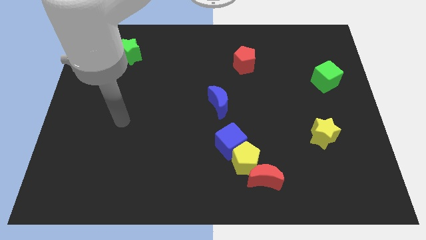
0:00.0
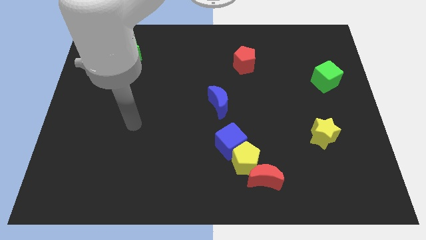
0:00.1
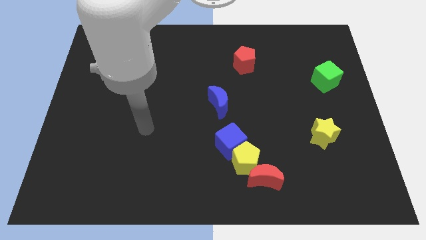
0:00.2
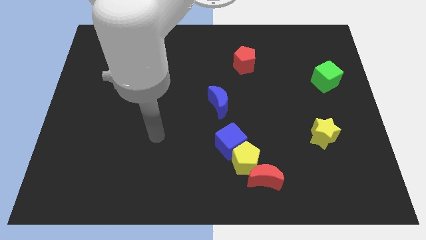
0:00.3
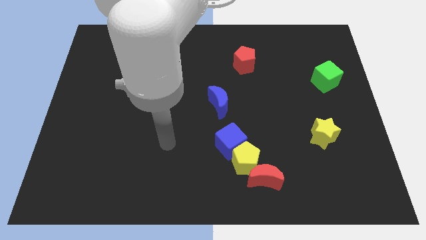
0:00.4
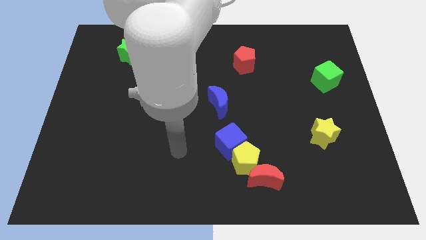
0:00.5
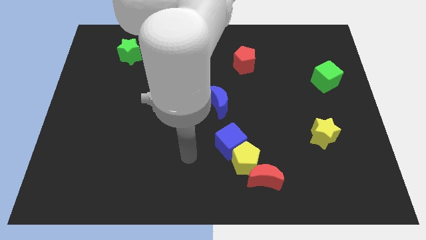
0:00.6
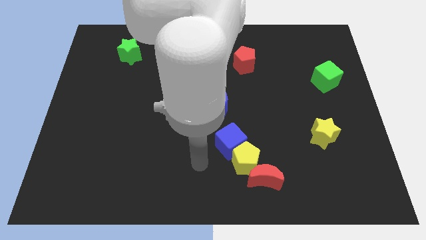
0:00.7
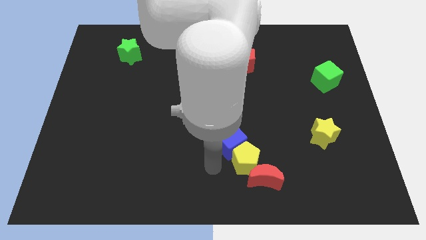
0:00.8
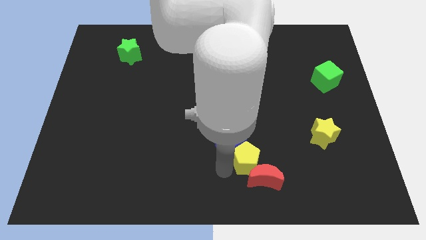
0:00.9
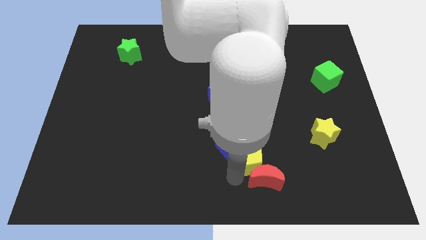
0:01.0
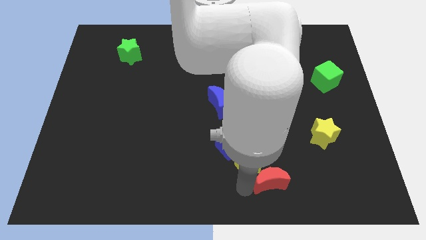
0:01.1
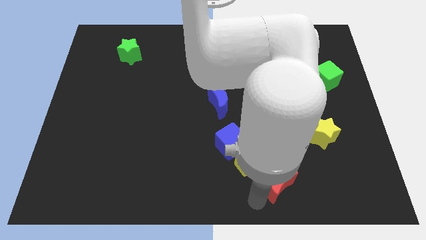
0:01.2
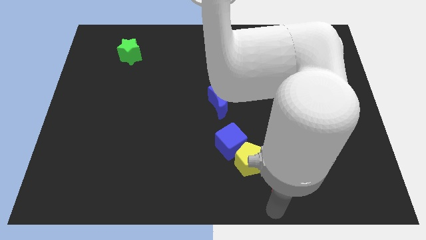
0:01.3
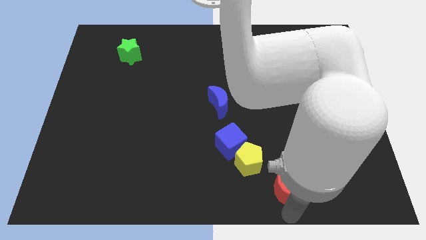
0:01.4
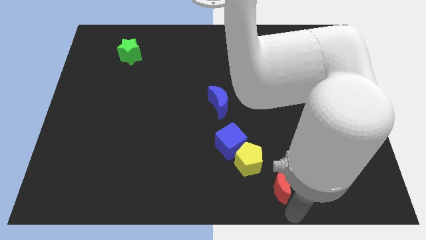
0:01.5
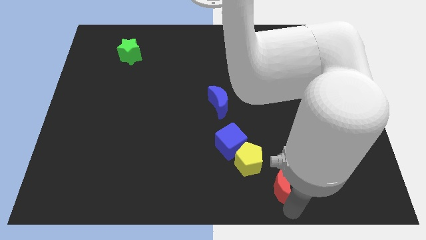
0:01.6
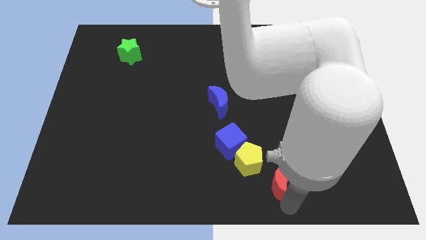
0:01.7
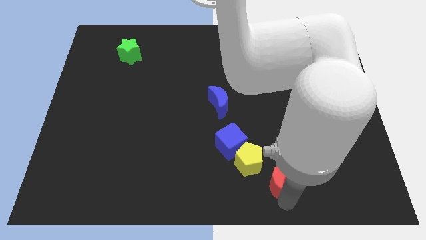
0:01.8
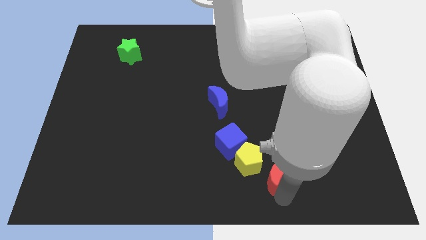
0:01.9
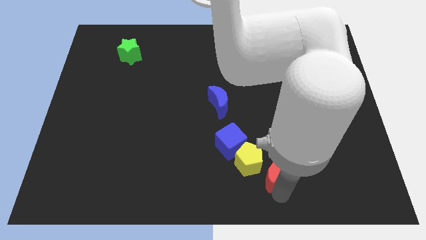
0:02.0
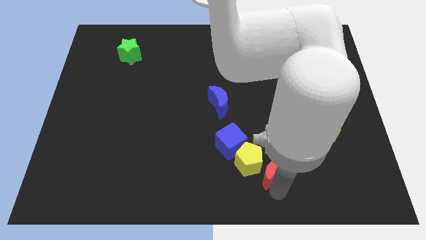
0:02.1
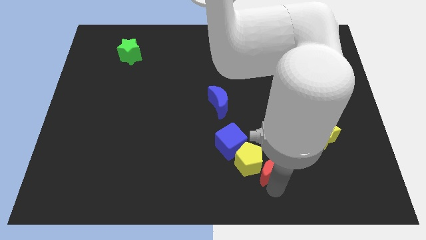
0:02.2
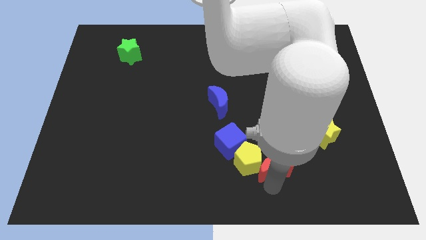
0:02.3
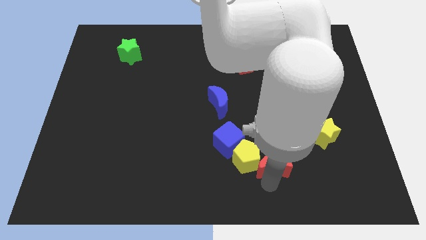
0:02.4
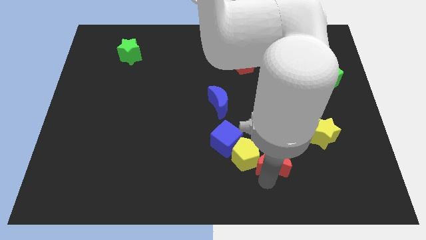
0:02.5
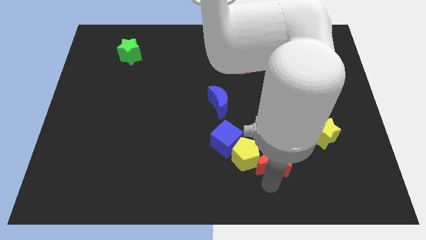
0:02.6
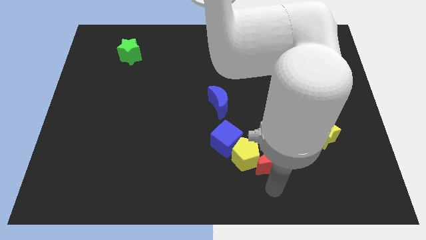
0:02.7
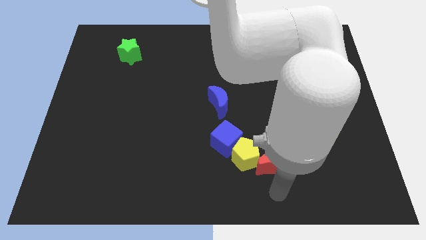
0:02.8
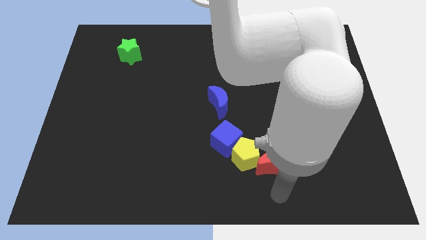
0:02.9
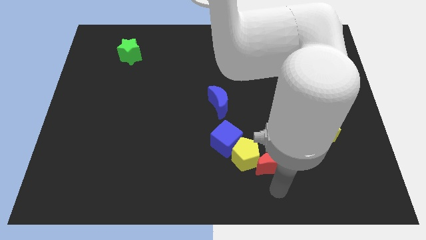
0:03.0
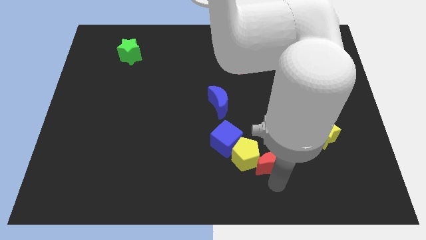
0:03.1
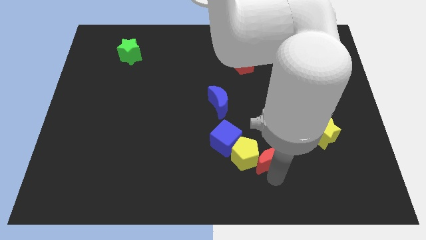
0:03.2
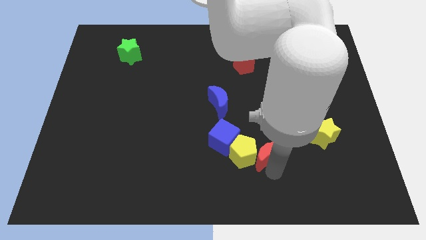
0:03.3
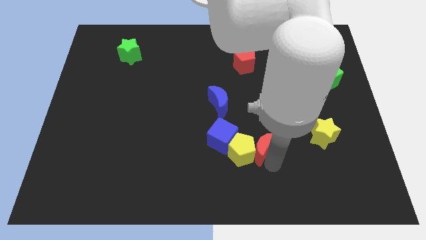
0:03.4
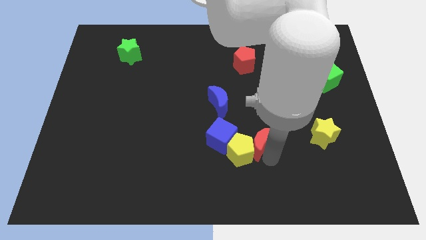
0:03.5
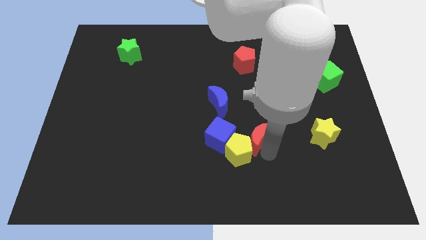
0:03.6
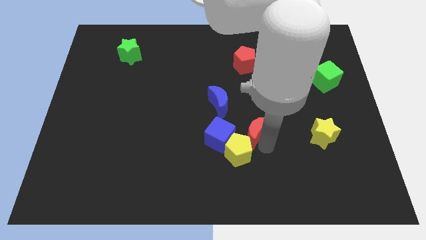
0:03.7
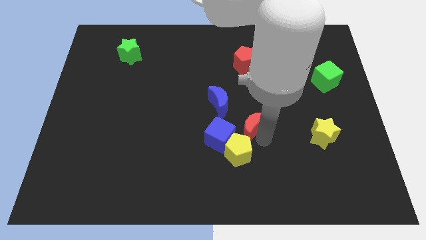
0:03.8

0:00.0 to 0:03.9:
push the red moon a little bit up and to the left

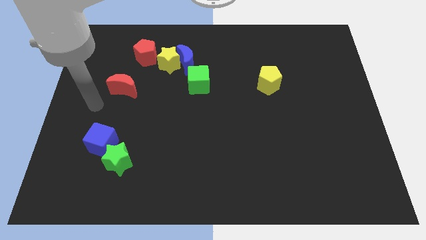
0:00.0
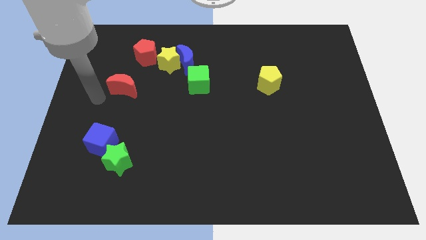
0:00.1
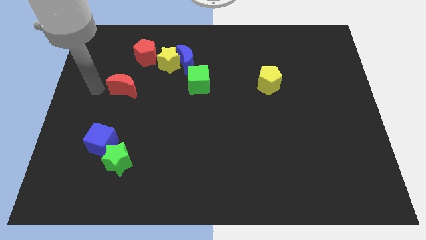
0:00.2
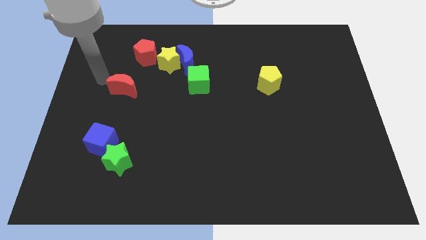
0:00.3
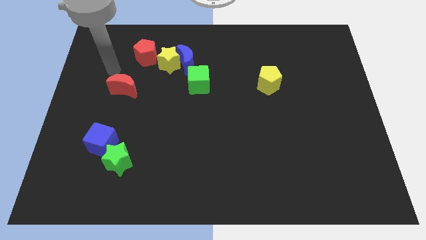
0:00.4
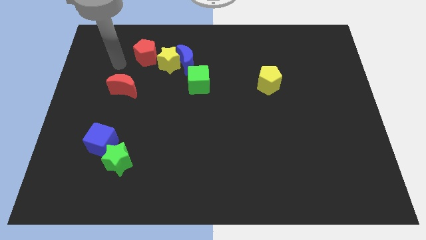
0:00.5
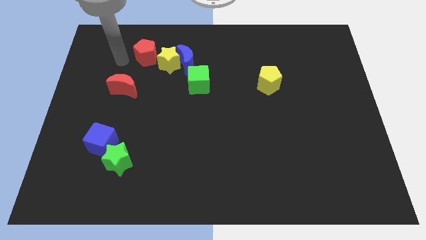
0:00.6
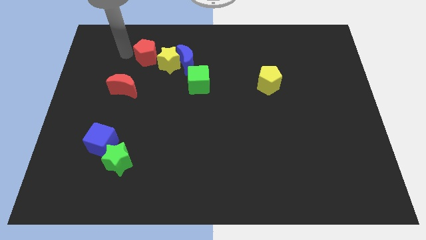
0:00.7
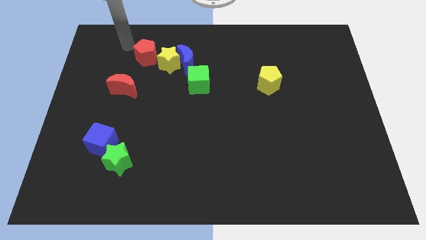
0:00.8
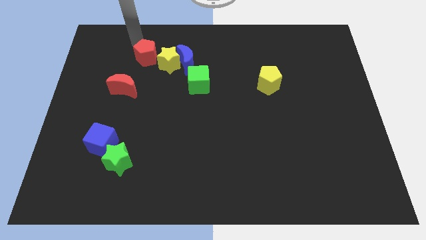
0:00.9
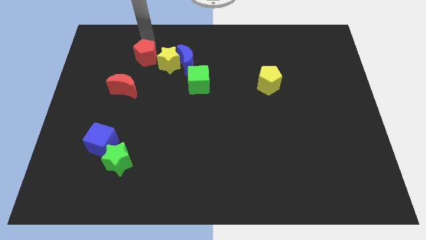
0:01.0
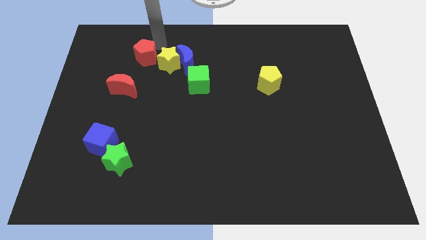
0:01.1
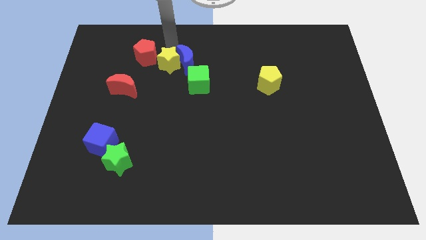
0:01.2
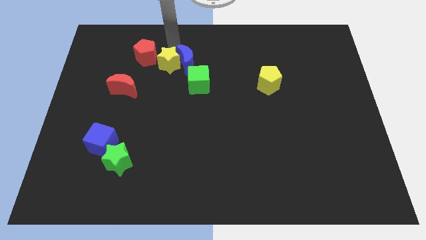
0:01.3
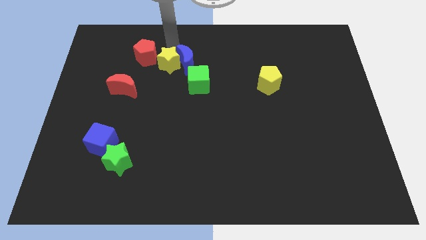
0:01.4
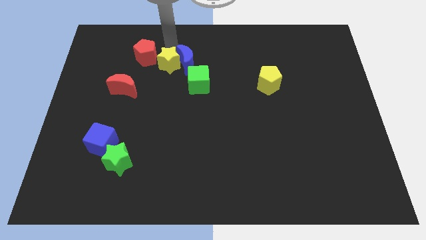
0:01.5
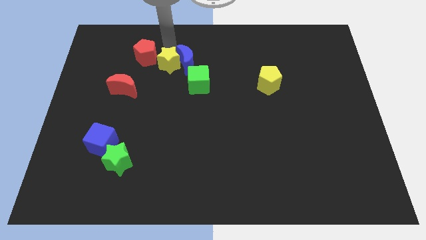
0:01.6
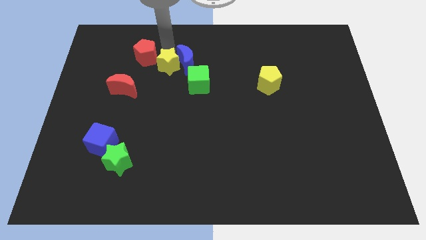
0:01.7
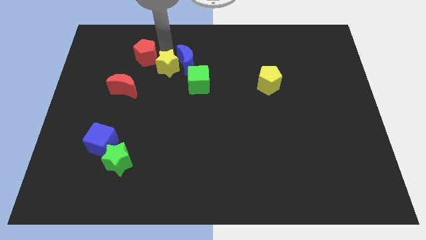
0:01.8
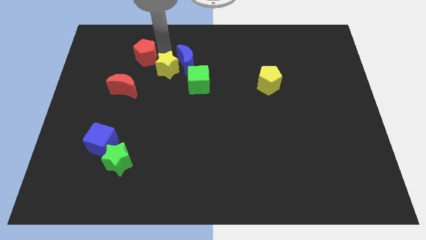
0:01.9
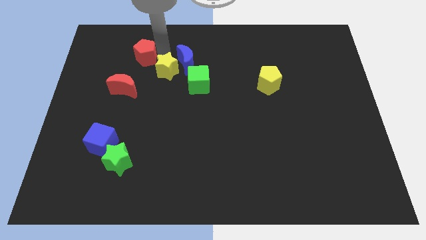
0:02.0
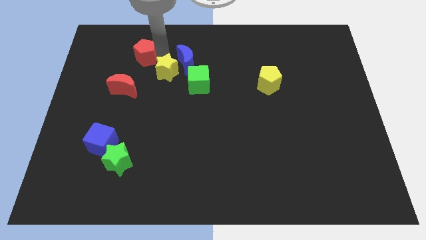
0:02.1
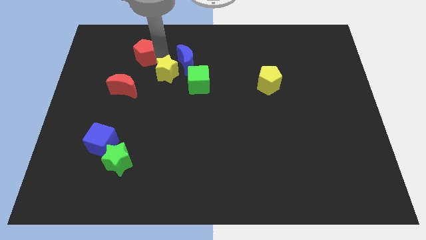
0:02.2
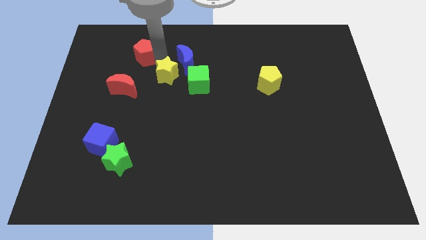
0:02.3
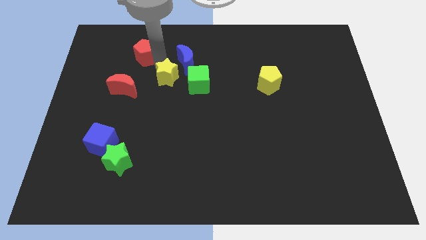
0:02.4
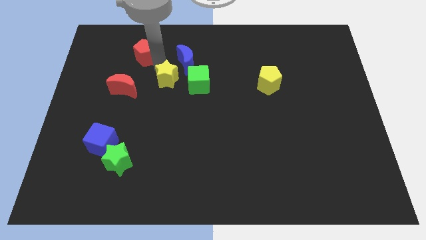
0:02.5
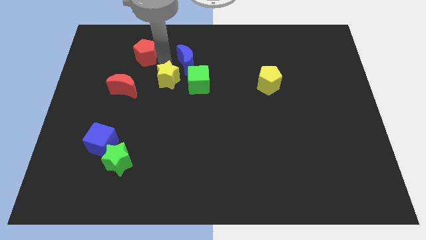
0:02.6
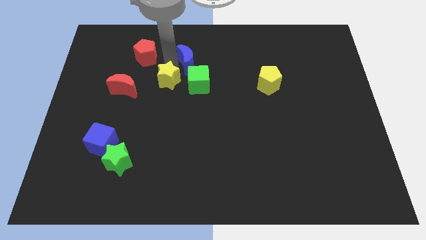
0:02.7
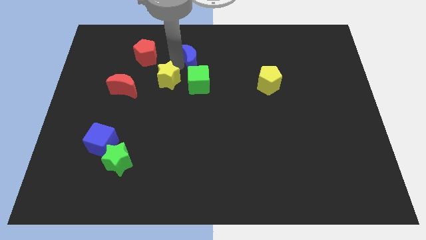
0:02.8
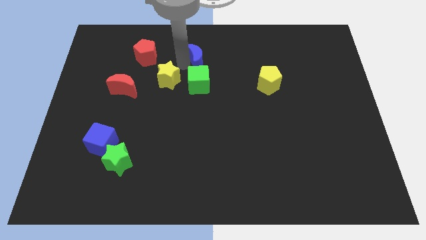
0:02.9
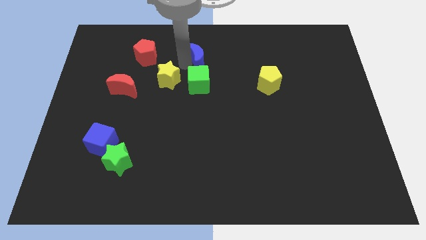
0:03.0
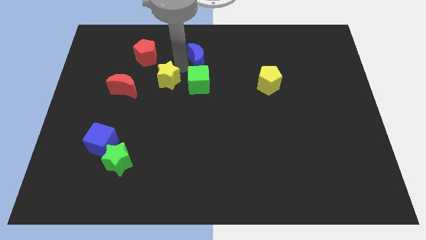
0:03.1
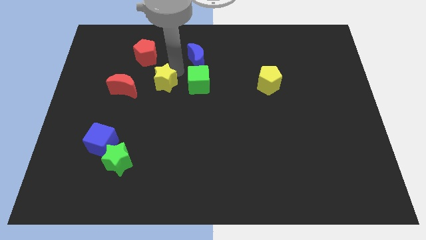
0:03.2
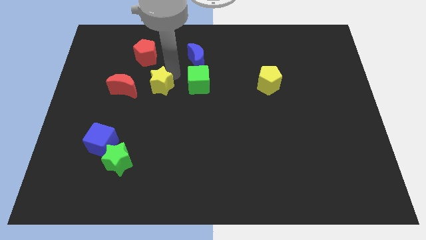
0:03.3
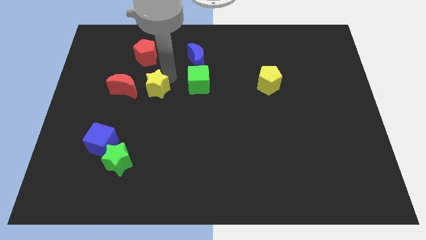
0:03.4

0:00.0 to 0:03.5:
slide the yellow star slightly downwards and left

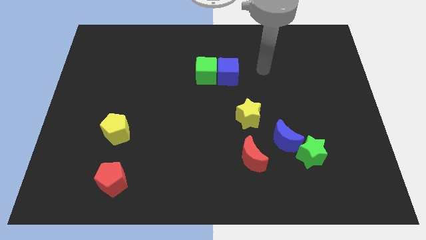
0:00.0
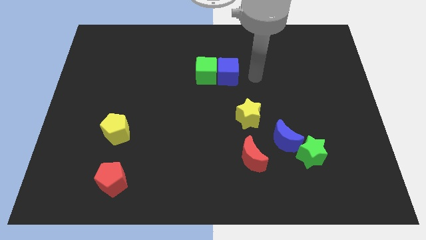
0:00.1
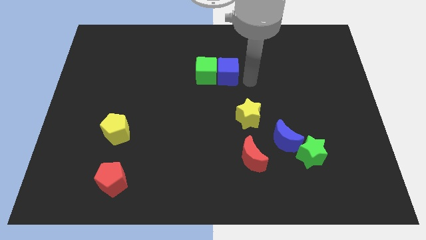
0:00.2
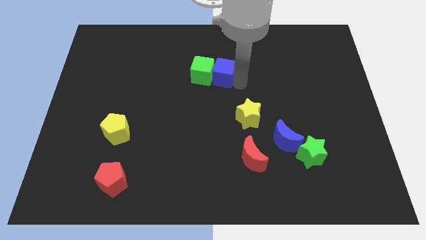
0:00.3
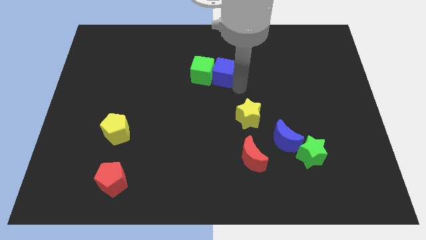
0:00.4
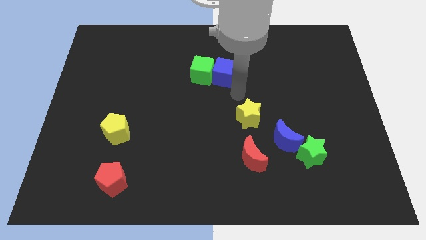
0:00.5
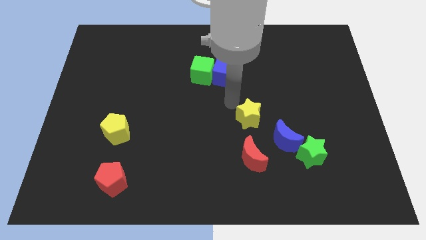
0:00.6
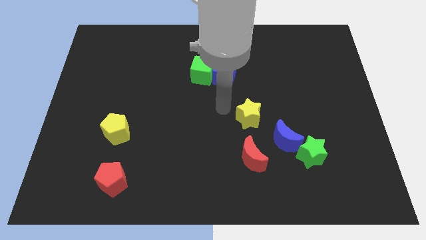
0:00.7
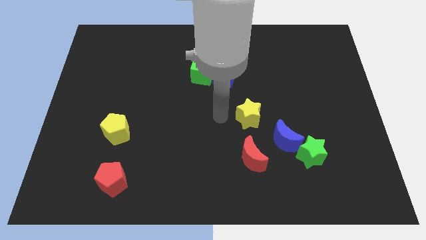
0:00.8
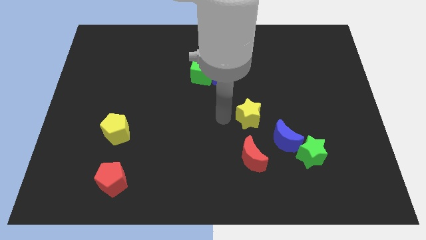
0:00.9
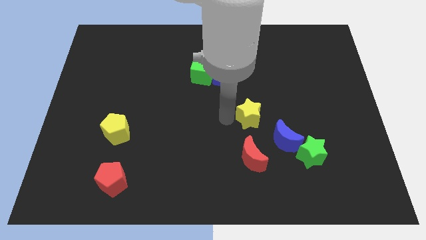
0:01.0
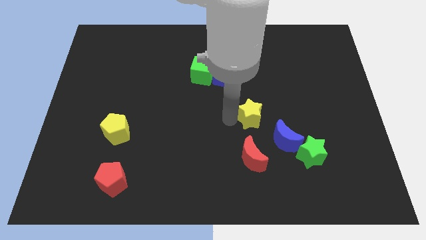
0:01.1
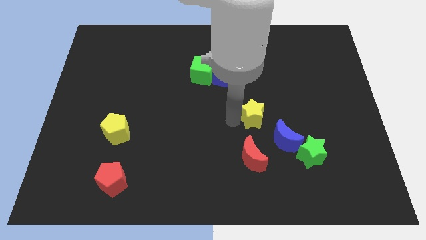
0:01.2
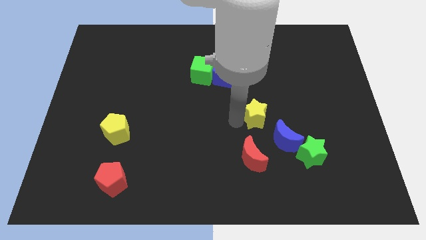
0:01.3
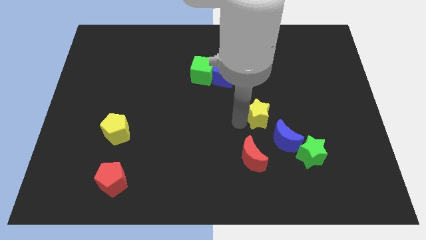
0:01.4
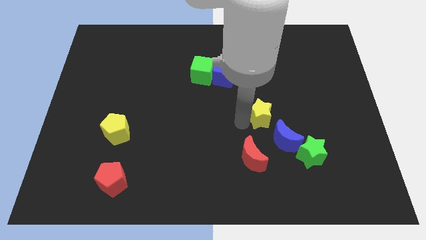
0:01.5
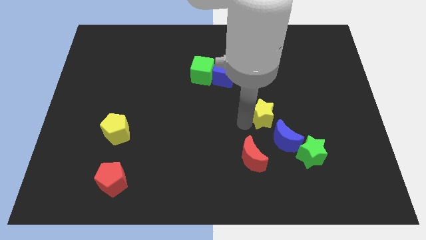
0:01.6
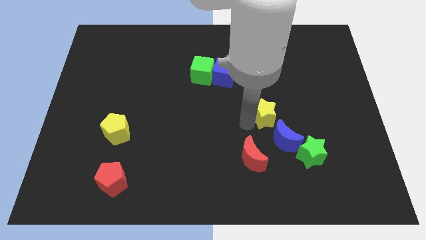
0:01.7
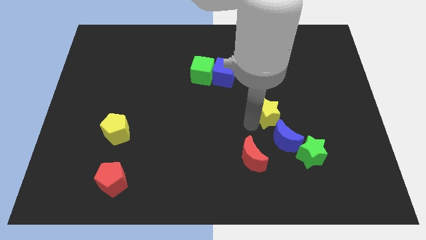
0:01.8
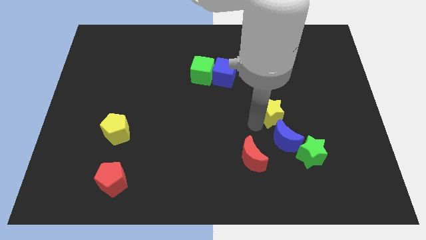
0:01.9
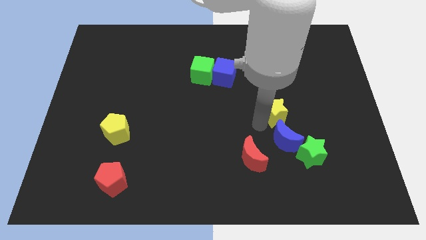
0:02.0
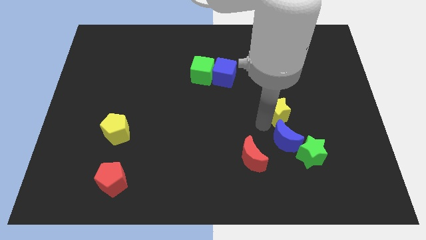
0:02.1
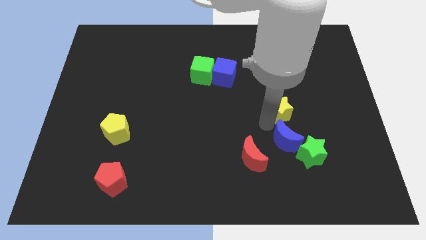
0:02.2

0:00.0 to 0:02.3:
slide the yellow star to the right a little bit
